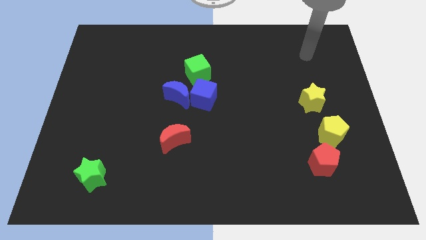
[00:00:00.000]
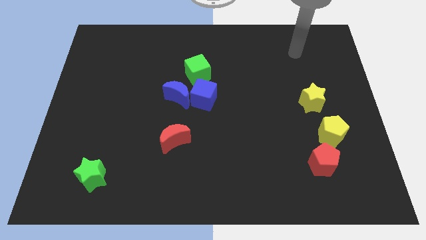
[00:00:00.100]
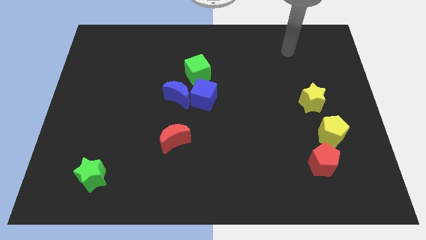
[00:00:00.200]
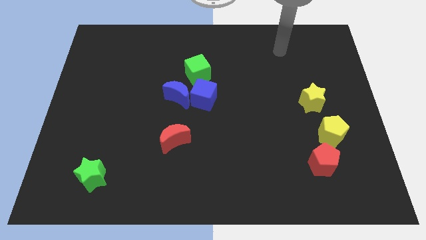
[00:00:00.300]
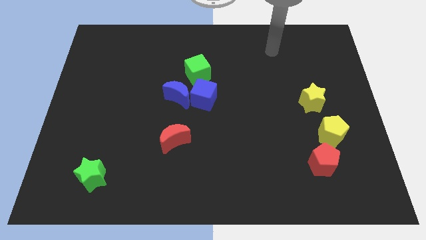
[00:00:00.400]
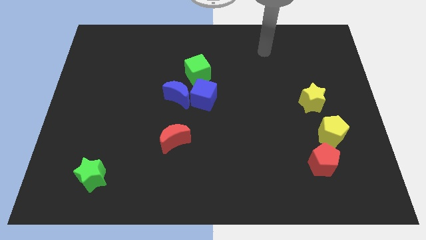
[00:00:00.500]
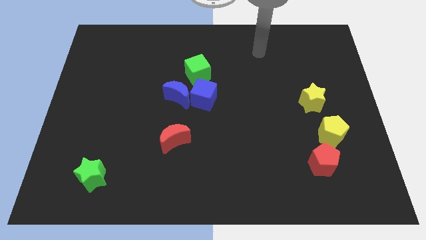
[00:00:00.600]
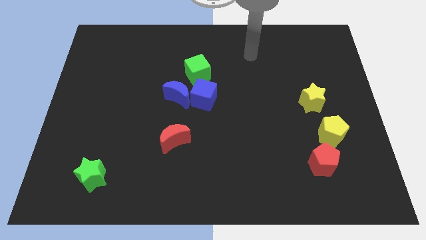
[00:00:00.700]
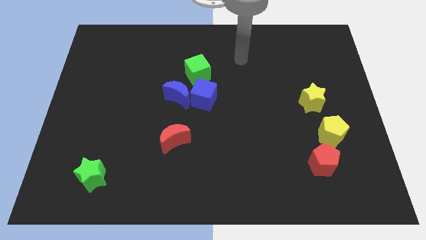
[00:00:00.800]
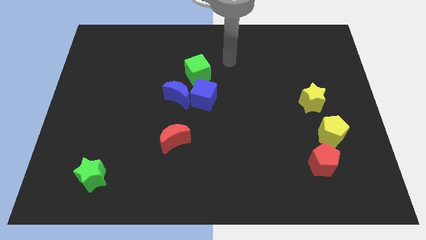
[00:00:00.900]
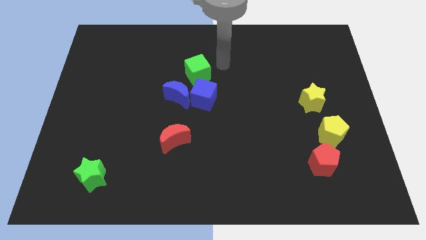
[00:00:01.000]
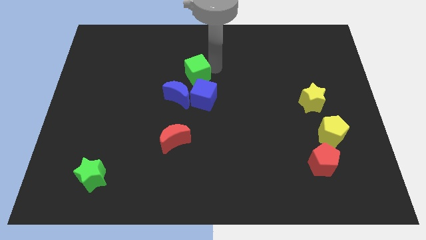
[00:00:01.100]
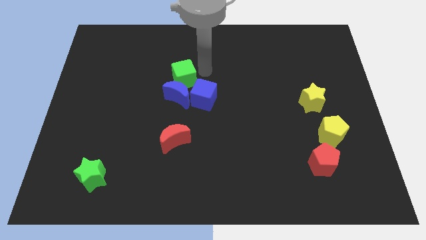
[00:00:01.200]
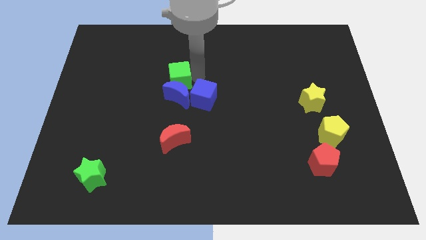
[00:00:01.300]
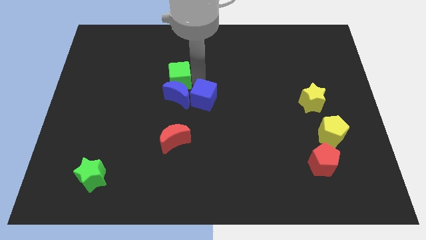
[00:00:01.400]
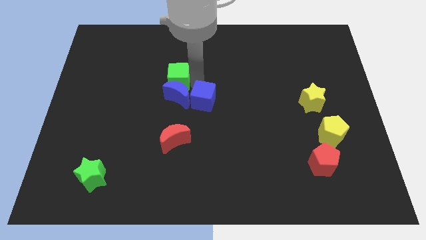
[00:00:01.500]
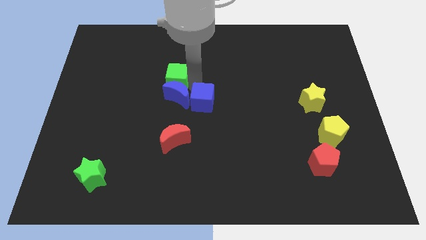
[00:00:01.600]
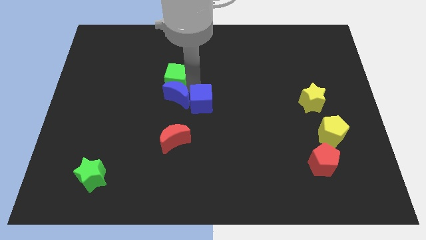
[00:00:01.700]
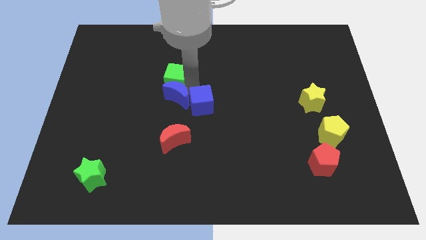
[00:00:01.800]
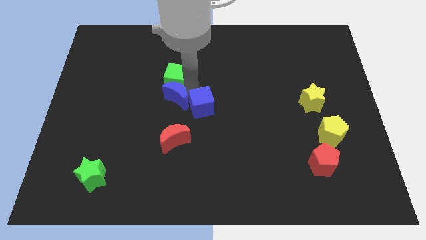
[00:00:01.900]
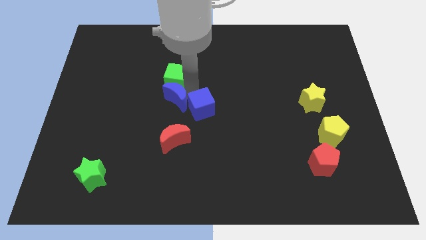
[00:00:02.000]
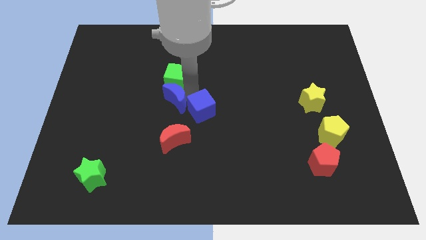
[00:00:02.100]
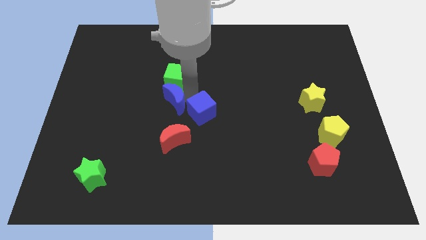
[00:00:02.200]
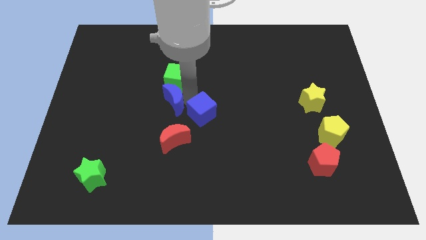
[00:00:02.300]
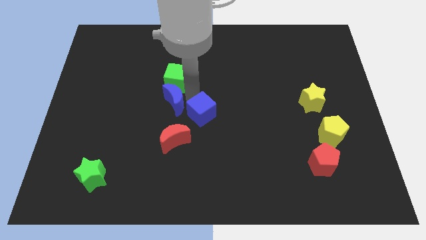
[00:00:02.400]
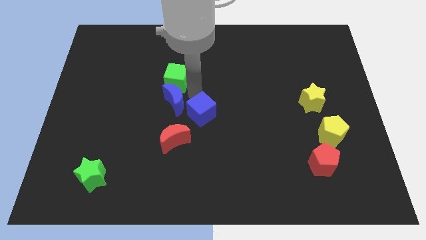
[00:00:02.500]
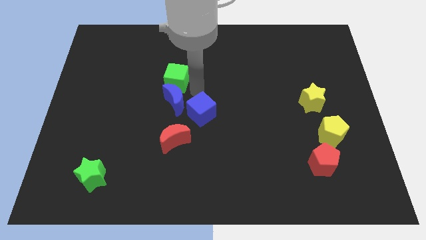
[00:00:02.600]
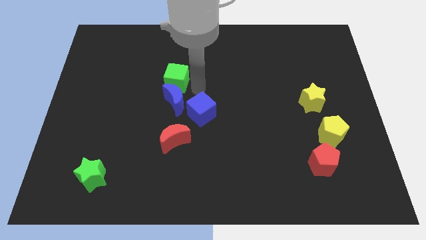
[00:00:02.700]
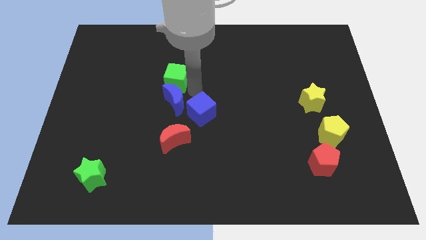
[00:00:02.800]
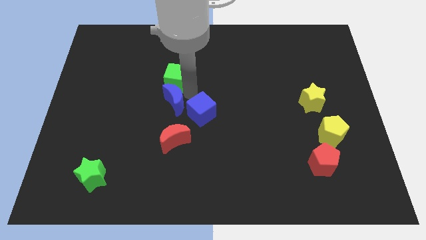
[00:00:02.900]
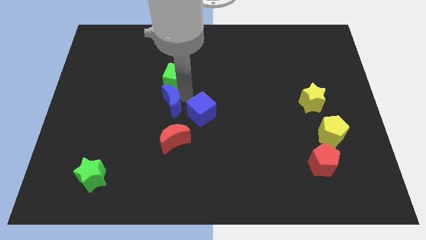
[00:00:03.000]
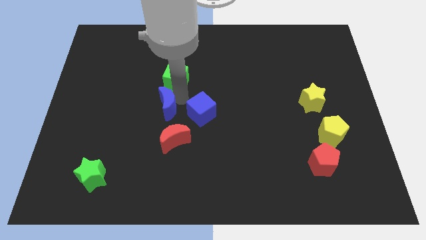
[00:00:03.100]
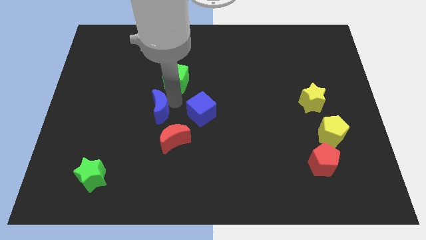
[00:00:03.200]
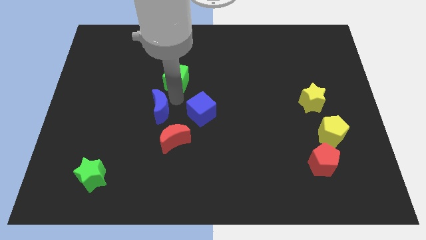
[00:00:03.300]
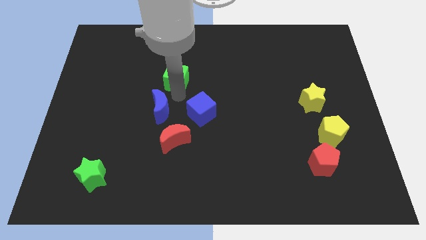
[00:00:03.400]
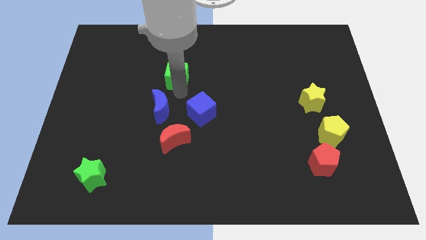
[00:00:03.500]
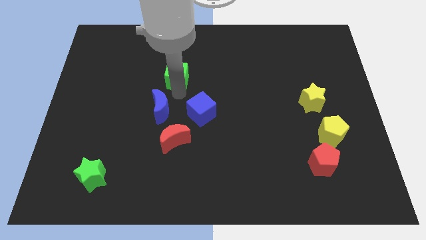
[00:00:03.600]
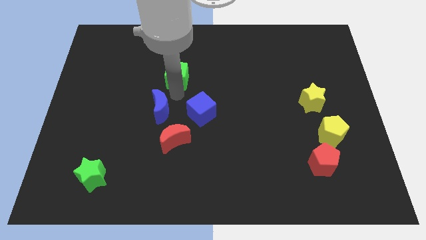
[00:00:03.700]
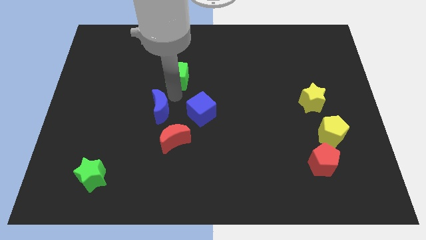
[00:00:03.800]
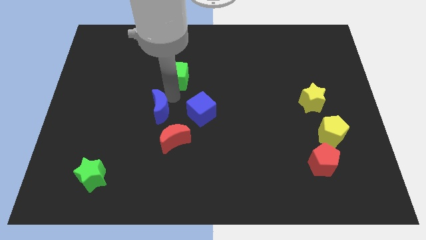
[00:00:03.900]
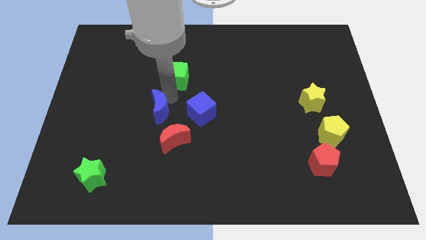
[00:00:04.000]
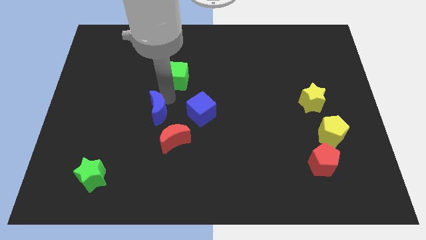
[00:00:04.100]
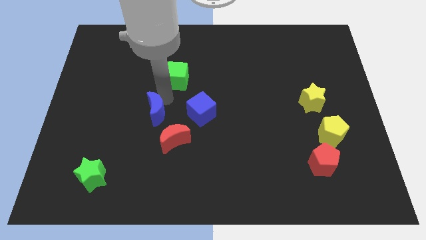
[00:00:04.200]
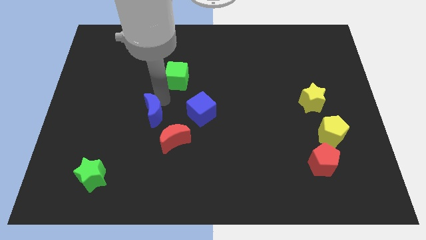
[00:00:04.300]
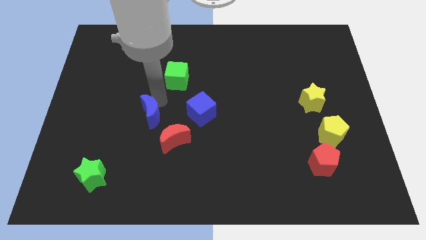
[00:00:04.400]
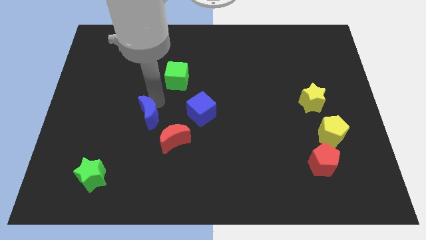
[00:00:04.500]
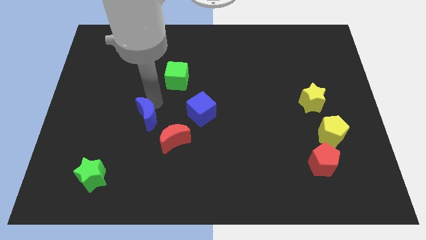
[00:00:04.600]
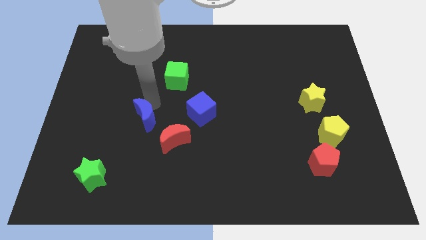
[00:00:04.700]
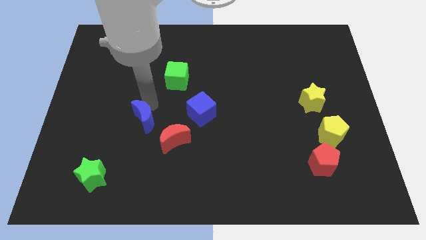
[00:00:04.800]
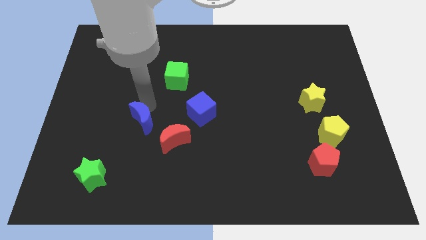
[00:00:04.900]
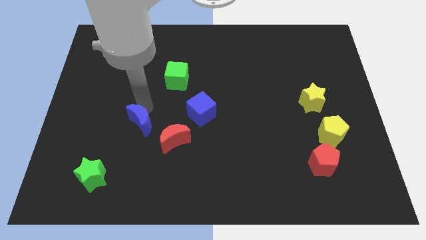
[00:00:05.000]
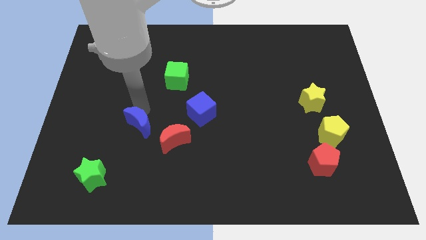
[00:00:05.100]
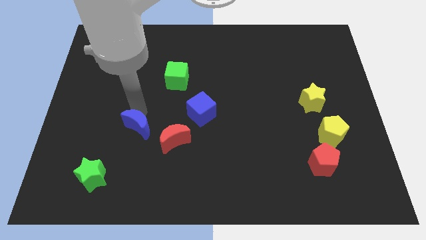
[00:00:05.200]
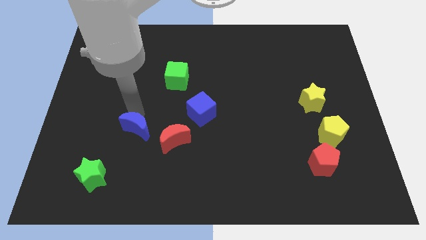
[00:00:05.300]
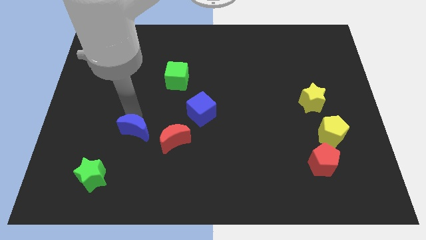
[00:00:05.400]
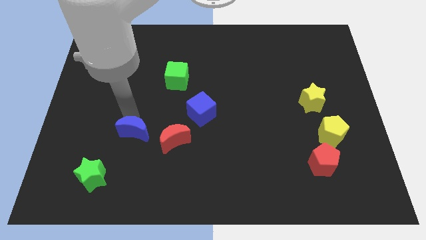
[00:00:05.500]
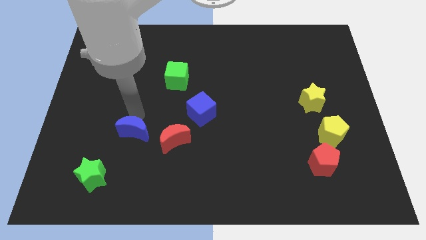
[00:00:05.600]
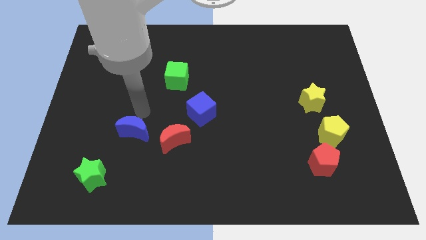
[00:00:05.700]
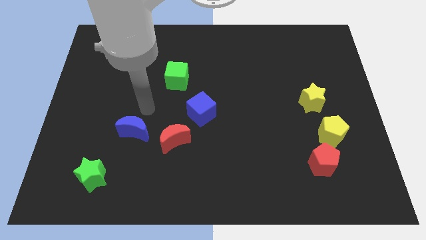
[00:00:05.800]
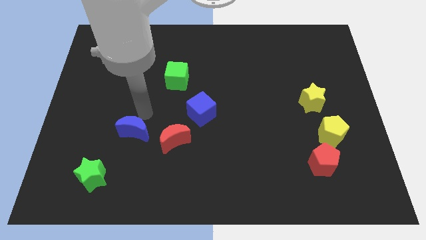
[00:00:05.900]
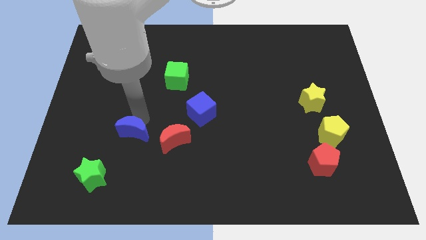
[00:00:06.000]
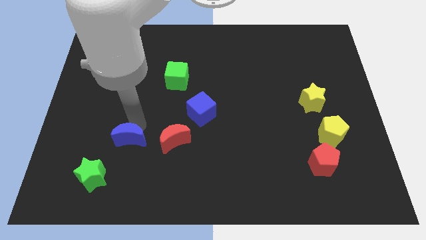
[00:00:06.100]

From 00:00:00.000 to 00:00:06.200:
move the blue moon to the top right side of the green star

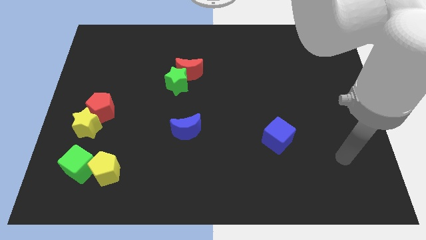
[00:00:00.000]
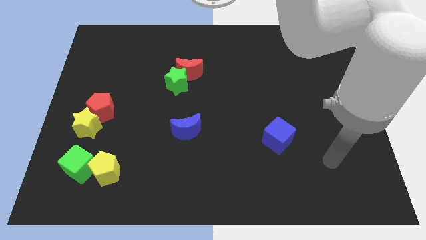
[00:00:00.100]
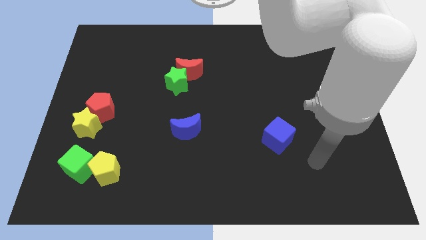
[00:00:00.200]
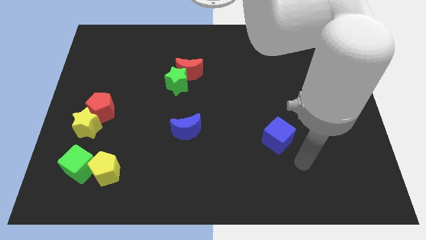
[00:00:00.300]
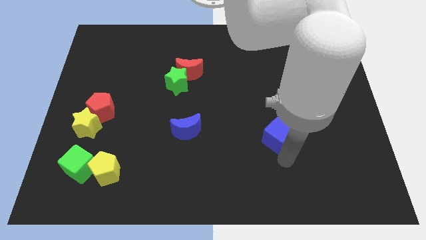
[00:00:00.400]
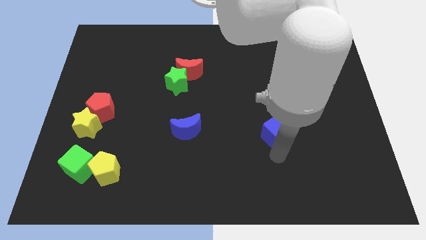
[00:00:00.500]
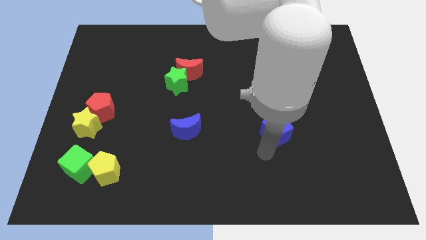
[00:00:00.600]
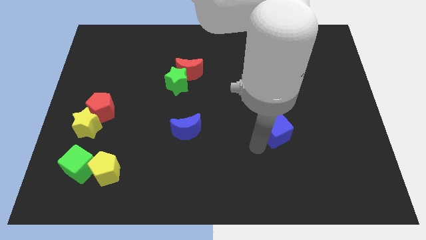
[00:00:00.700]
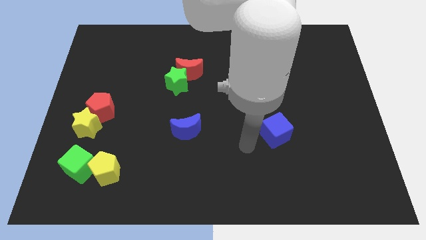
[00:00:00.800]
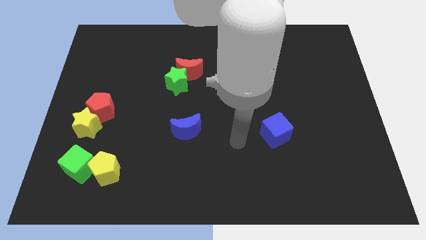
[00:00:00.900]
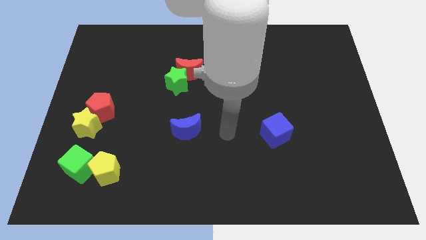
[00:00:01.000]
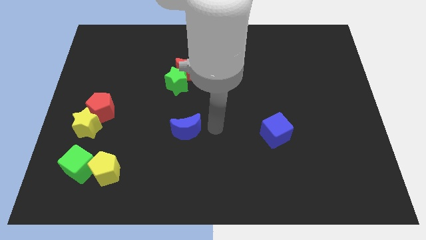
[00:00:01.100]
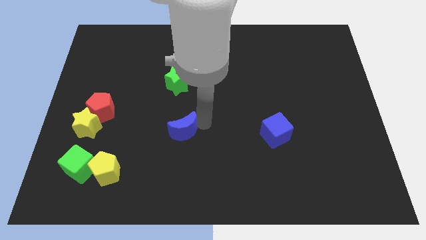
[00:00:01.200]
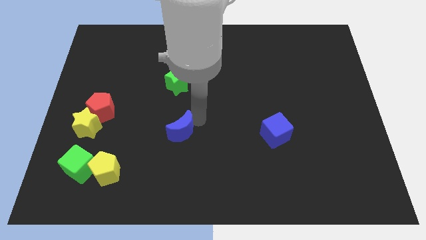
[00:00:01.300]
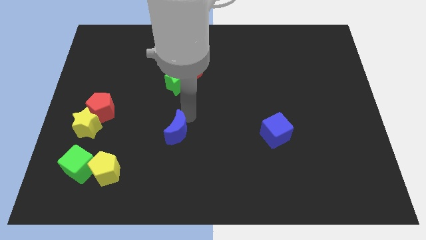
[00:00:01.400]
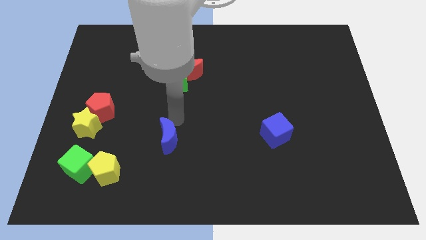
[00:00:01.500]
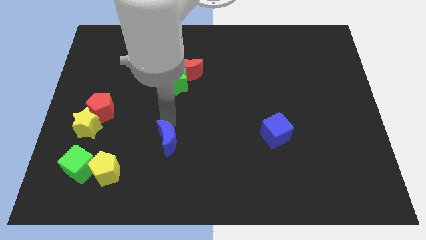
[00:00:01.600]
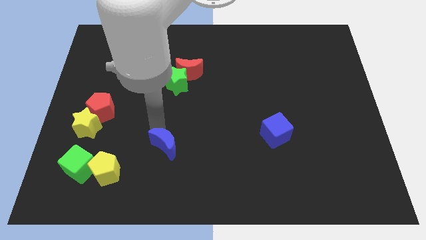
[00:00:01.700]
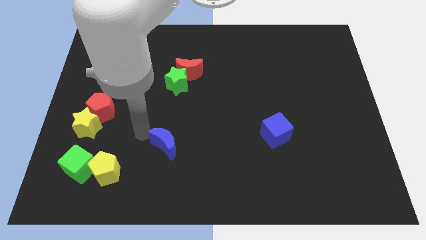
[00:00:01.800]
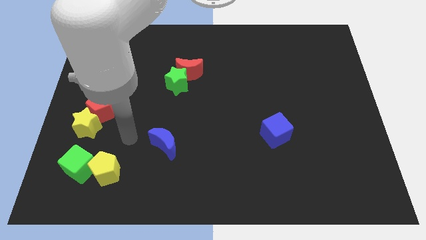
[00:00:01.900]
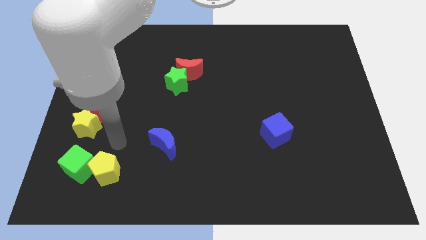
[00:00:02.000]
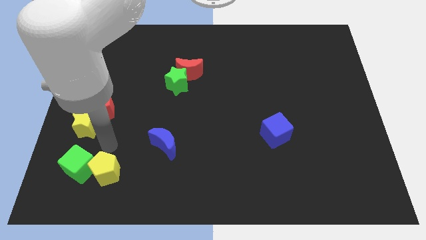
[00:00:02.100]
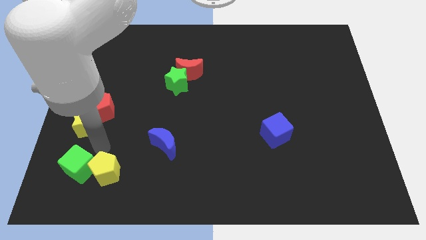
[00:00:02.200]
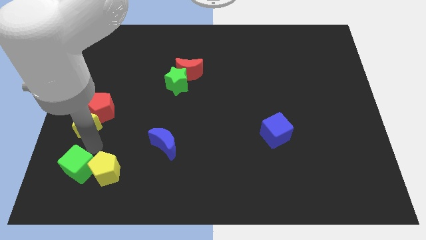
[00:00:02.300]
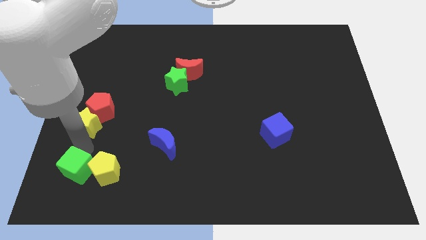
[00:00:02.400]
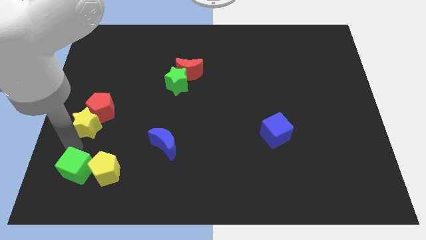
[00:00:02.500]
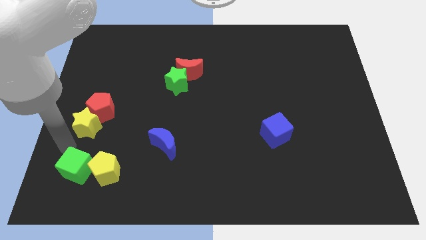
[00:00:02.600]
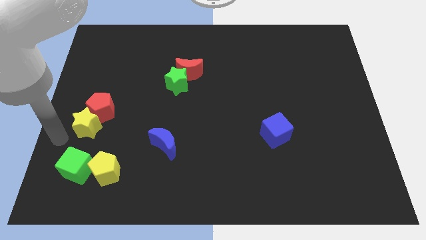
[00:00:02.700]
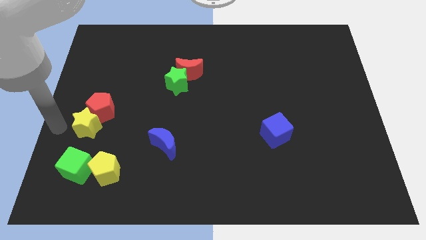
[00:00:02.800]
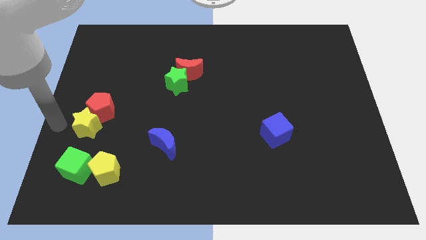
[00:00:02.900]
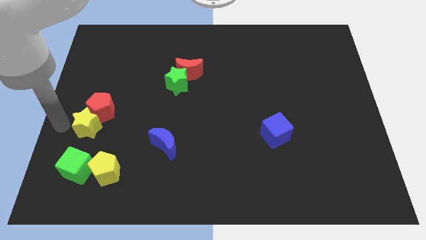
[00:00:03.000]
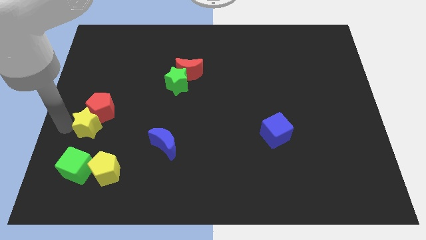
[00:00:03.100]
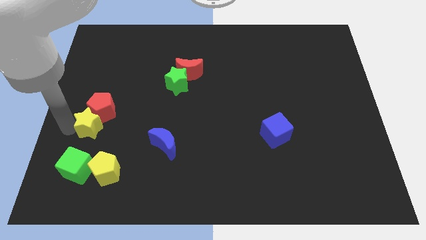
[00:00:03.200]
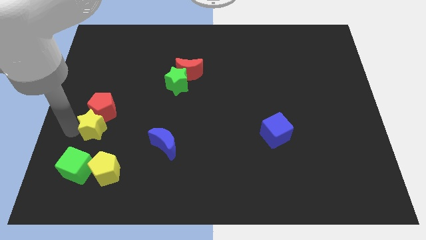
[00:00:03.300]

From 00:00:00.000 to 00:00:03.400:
put the yellow star to the bottom right side of the red pentagon
